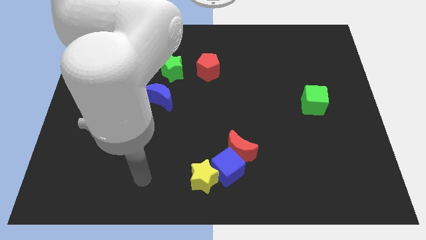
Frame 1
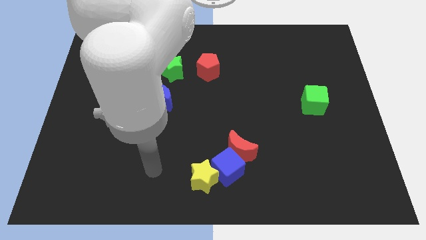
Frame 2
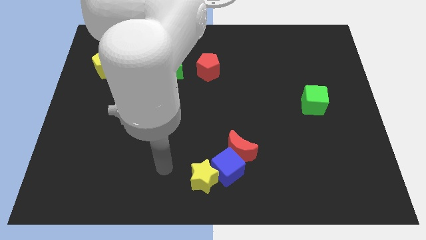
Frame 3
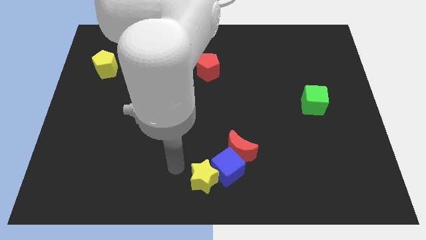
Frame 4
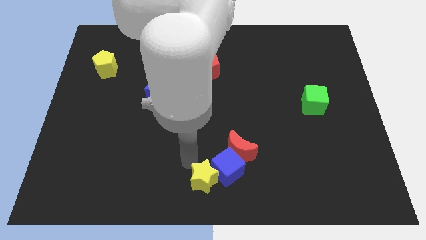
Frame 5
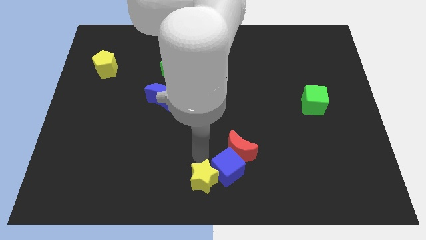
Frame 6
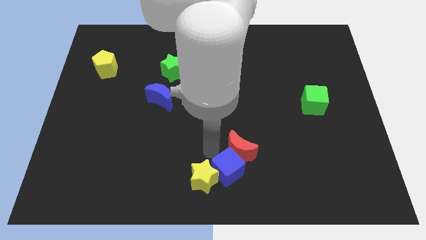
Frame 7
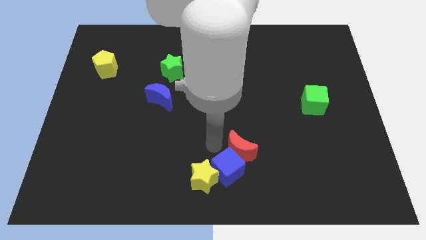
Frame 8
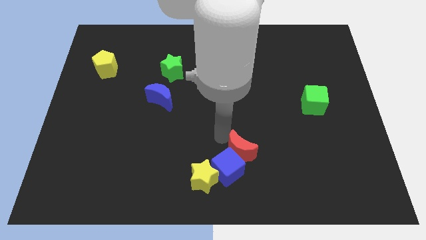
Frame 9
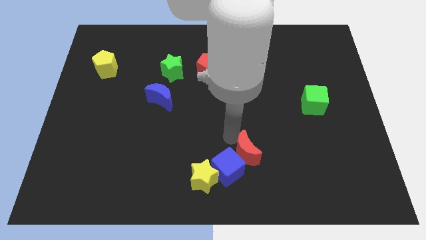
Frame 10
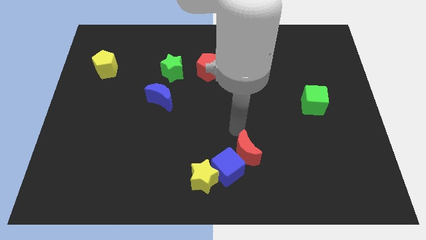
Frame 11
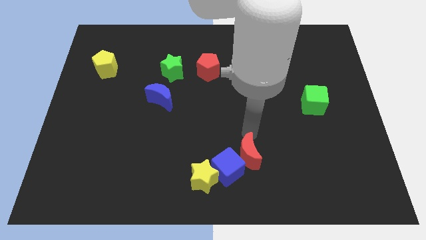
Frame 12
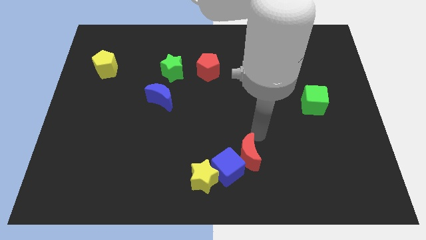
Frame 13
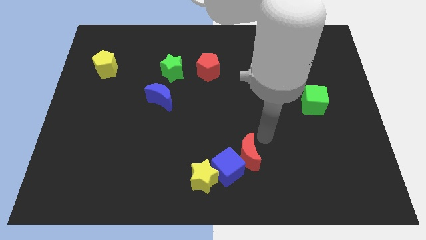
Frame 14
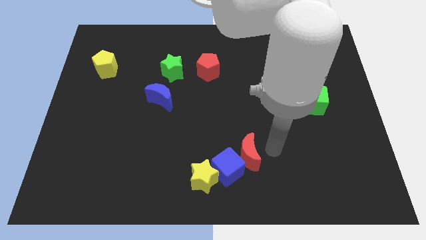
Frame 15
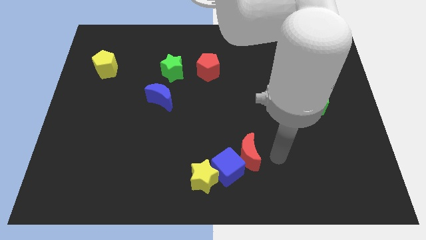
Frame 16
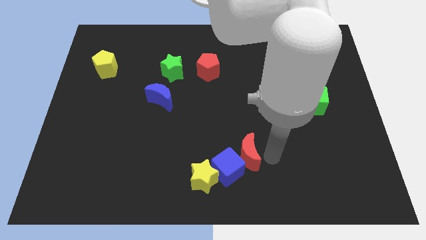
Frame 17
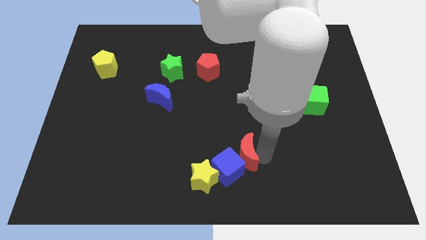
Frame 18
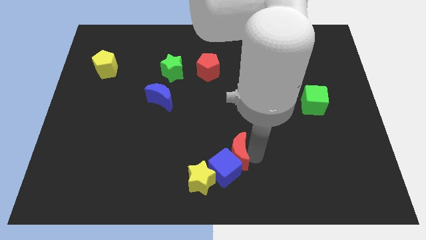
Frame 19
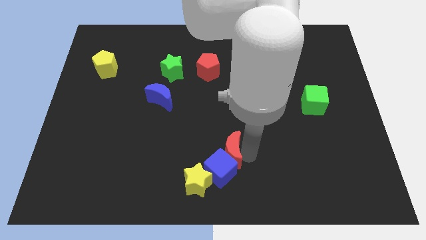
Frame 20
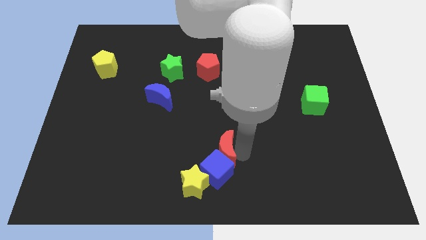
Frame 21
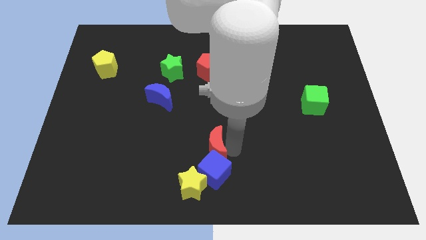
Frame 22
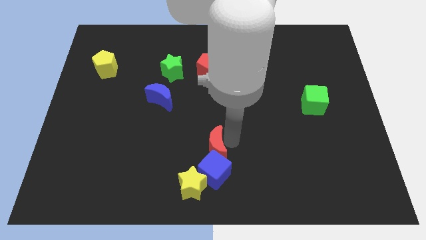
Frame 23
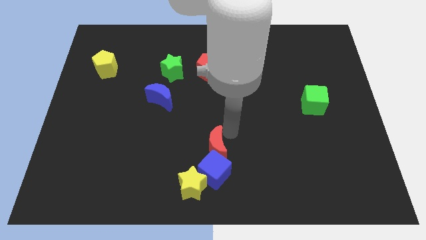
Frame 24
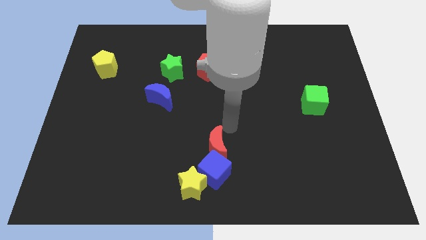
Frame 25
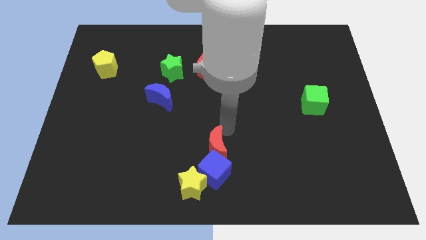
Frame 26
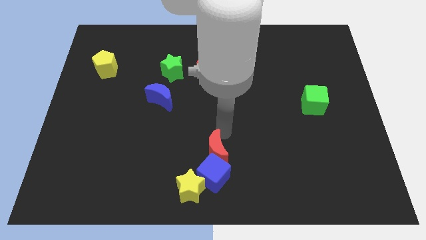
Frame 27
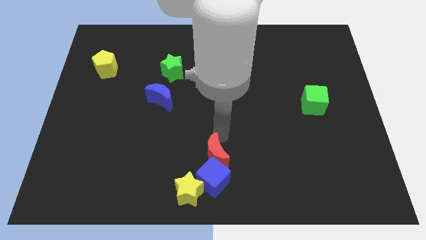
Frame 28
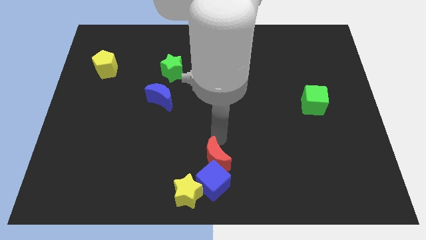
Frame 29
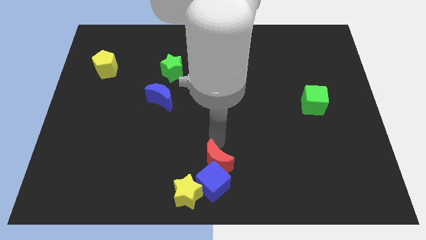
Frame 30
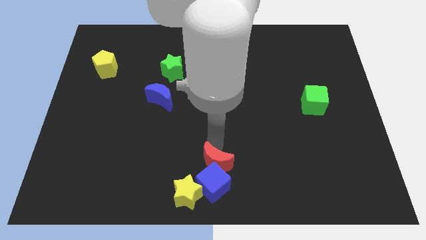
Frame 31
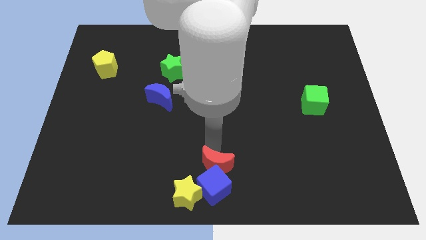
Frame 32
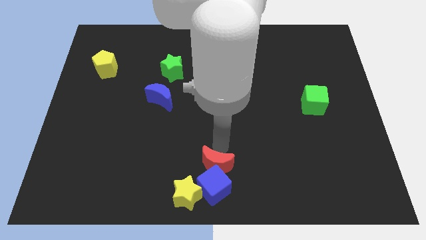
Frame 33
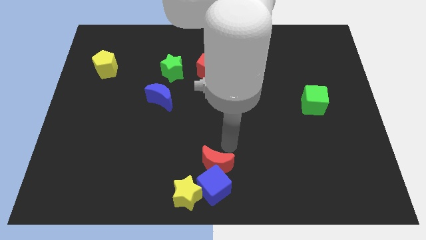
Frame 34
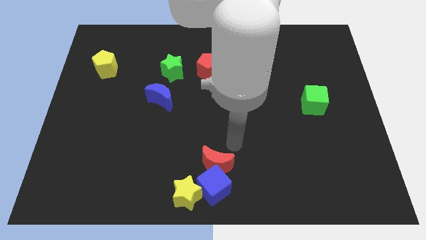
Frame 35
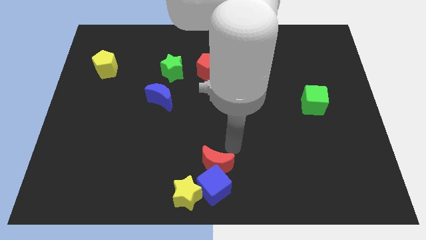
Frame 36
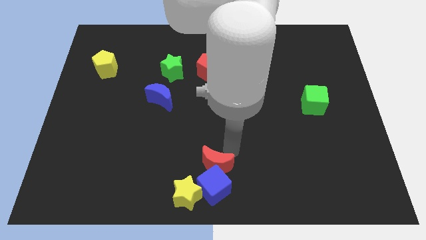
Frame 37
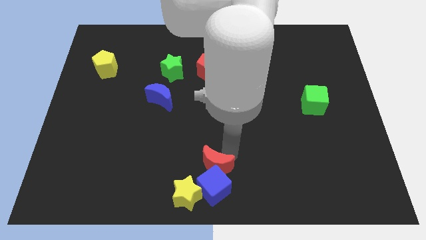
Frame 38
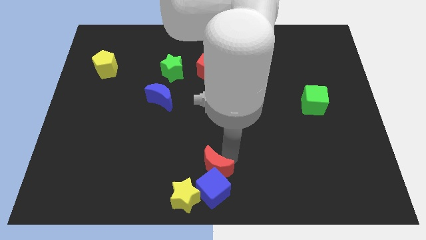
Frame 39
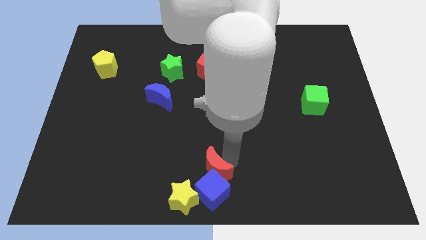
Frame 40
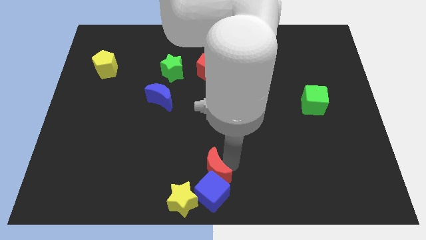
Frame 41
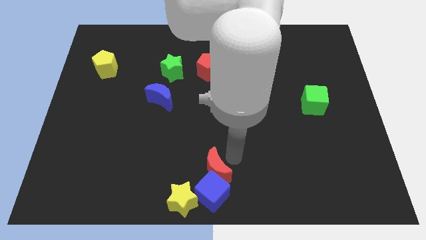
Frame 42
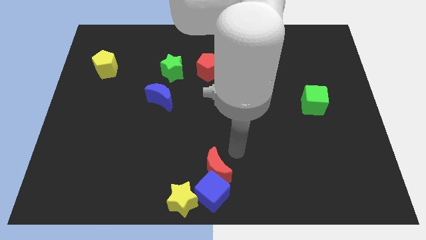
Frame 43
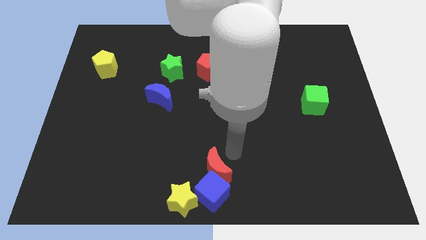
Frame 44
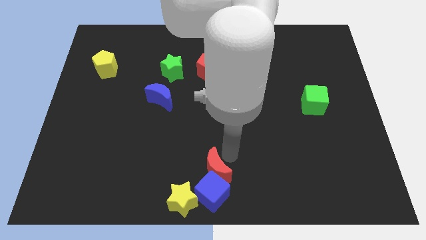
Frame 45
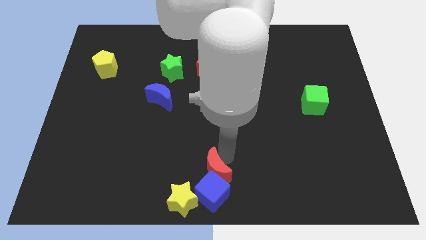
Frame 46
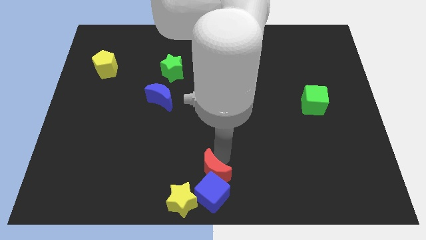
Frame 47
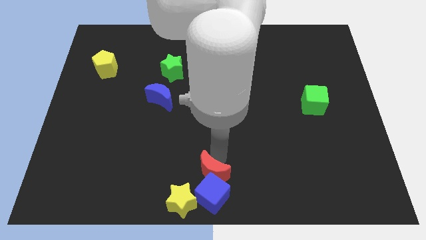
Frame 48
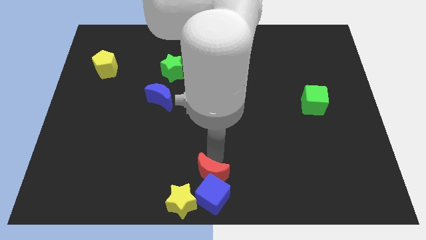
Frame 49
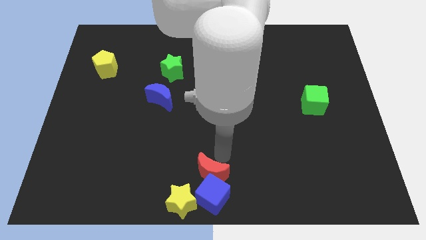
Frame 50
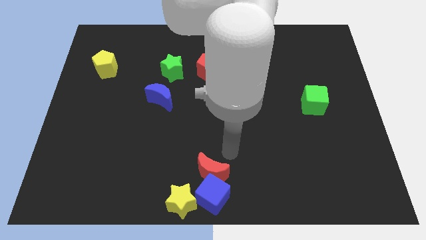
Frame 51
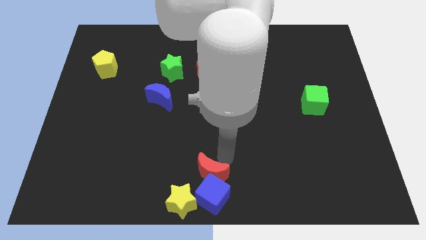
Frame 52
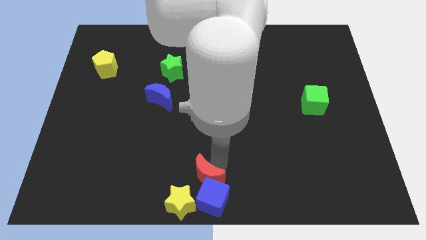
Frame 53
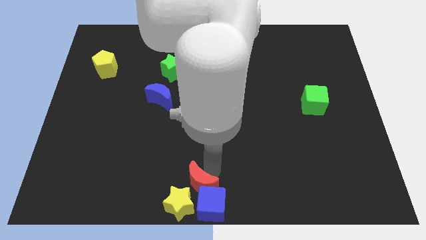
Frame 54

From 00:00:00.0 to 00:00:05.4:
push the red moon towards the yellow star

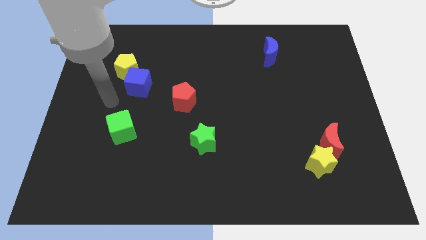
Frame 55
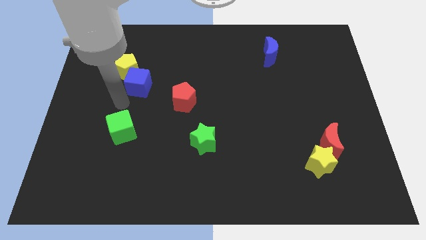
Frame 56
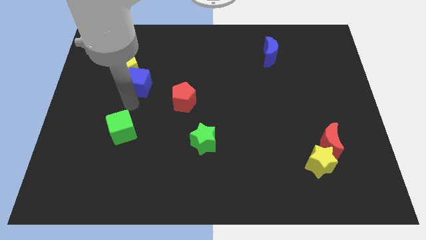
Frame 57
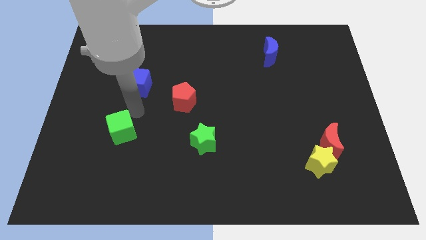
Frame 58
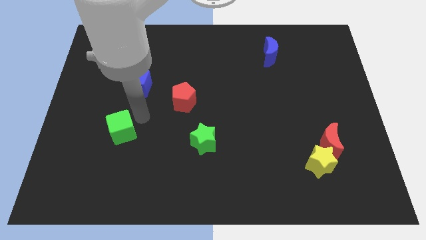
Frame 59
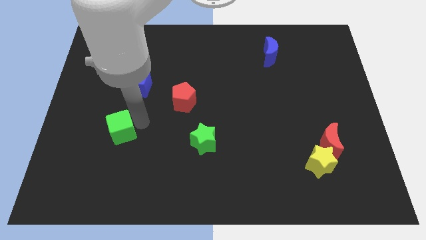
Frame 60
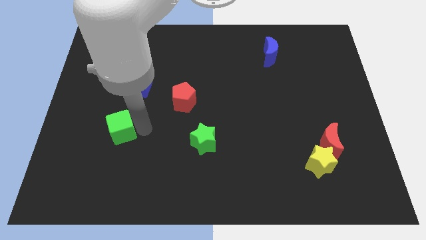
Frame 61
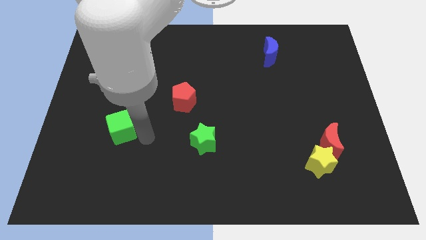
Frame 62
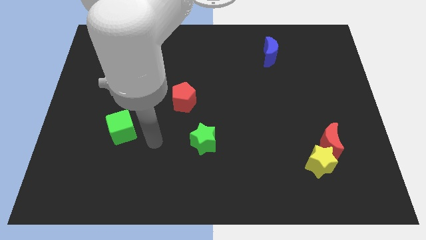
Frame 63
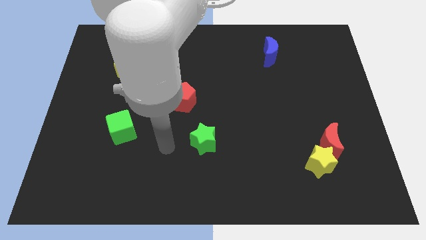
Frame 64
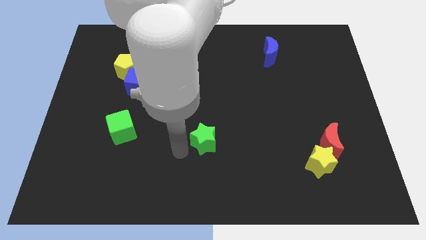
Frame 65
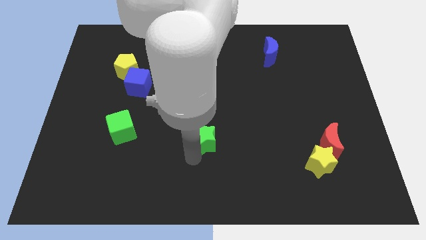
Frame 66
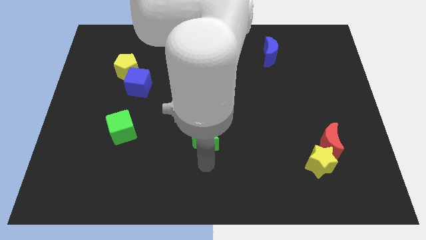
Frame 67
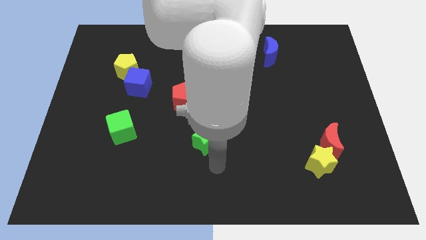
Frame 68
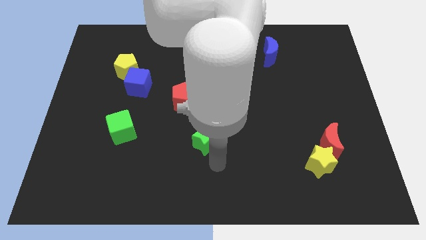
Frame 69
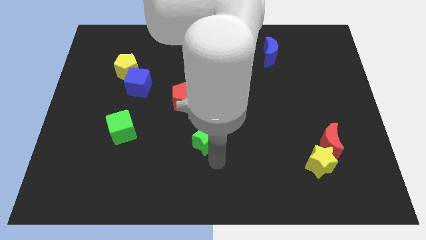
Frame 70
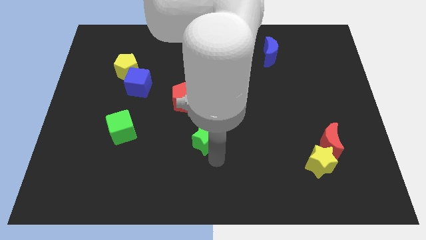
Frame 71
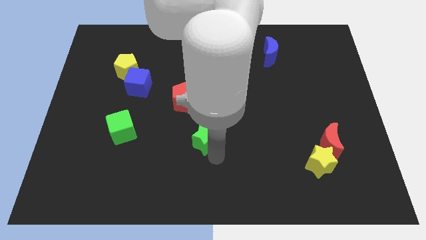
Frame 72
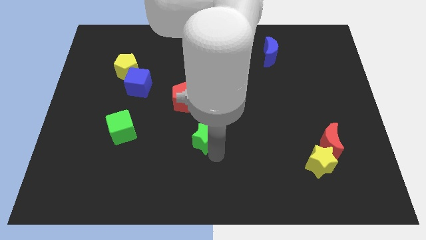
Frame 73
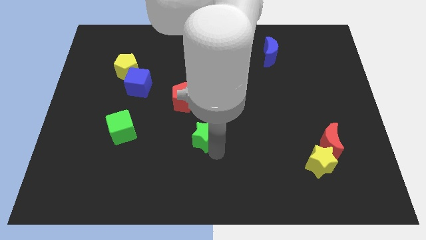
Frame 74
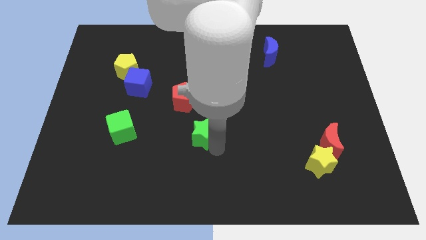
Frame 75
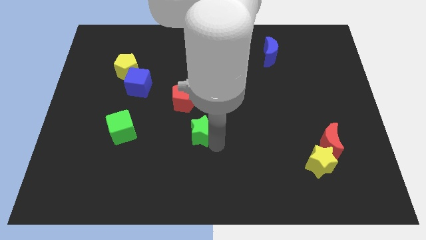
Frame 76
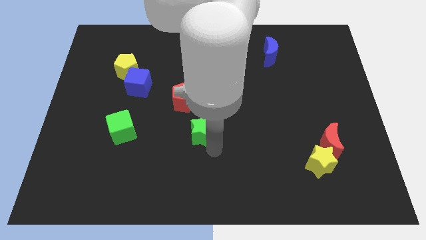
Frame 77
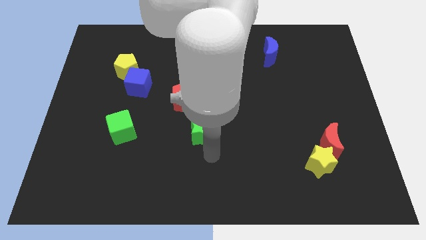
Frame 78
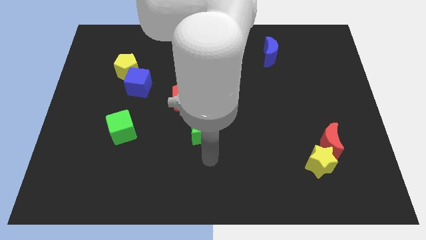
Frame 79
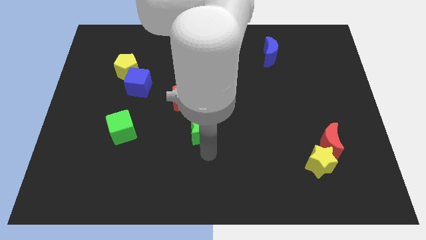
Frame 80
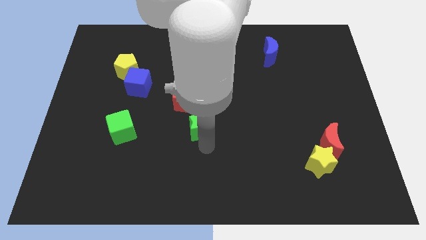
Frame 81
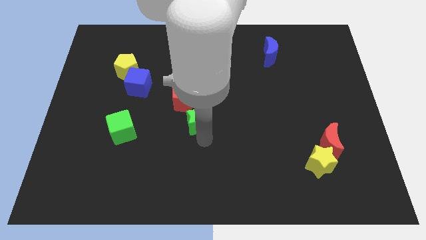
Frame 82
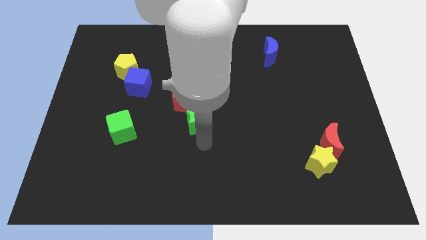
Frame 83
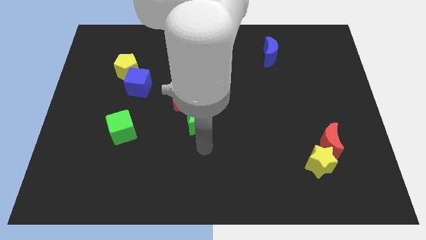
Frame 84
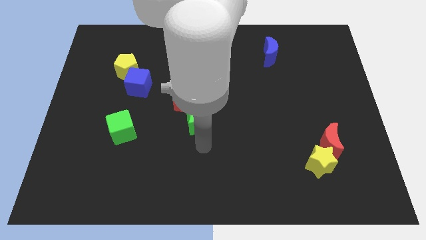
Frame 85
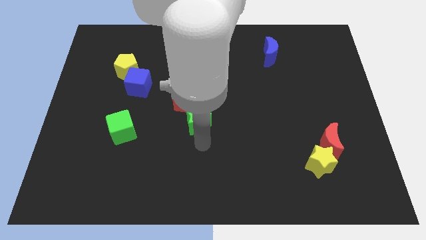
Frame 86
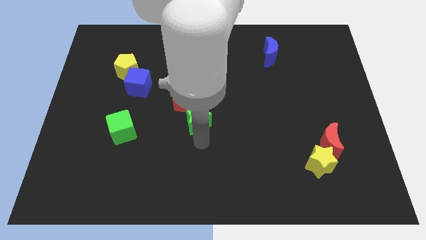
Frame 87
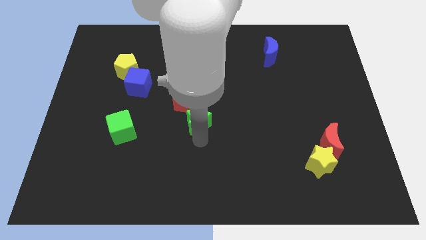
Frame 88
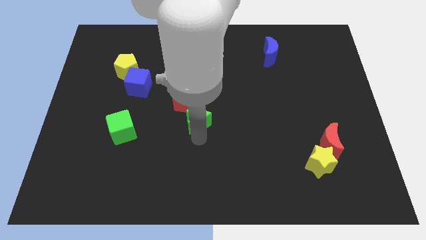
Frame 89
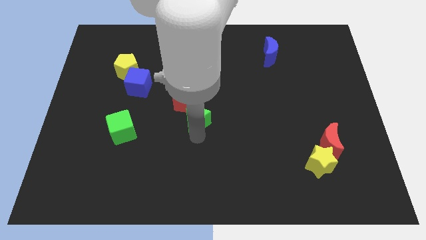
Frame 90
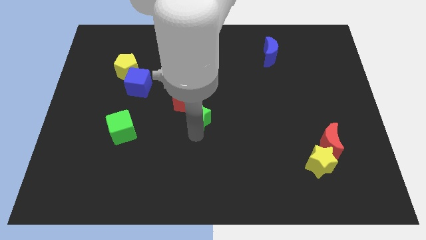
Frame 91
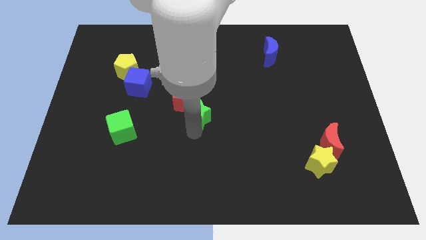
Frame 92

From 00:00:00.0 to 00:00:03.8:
put the green star to the red pentagon
